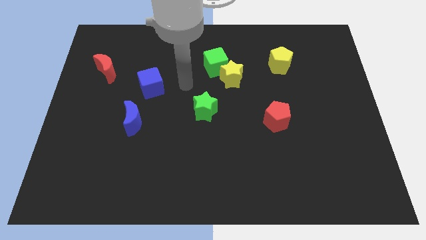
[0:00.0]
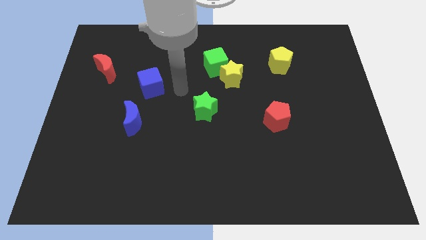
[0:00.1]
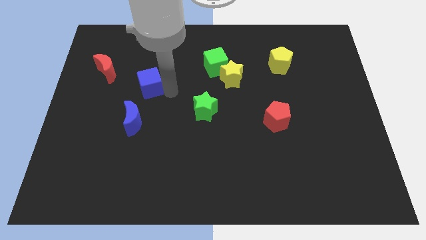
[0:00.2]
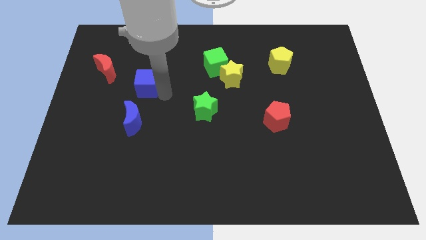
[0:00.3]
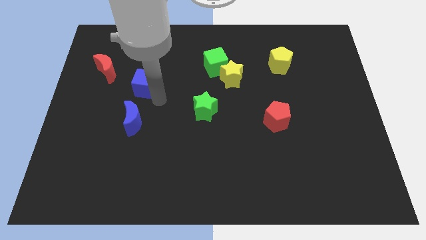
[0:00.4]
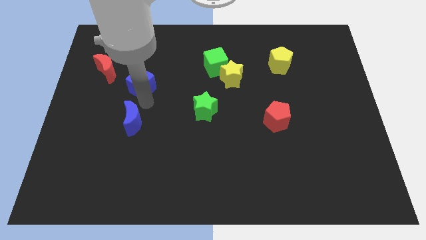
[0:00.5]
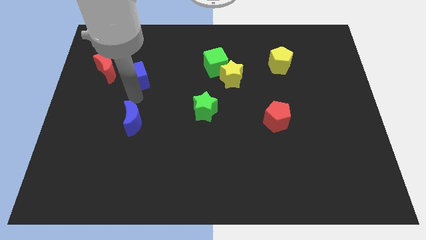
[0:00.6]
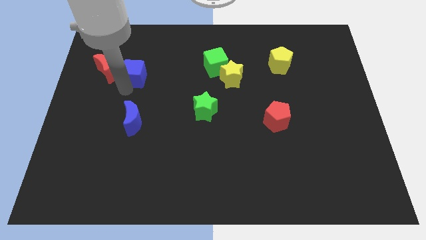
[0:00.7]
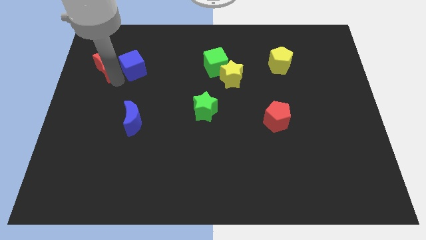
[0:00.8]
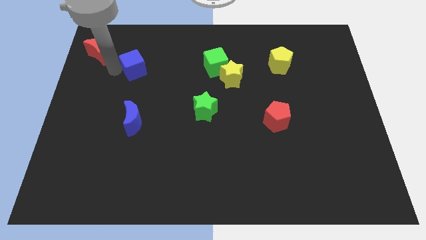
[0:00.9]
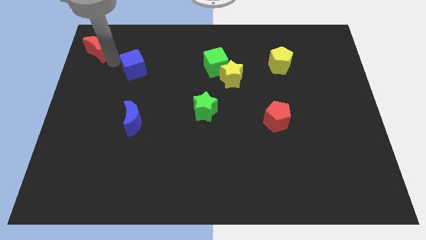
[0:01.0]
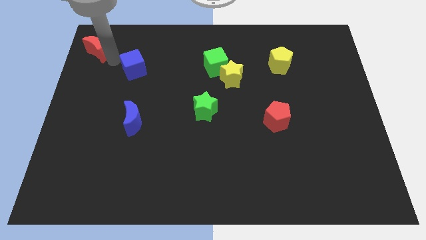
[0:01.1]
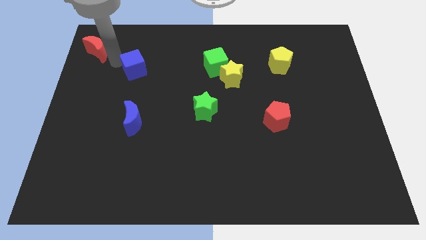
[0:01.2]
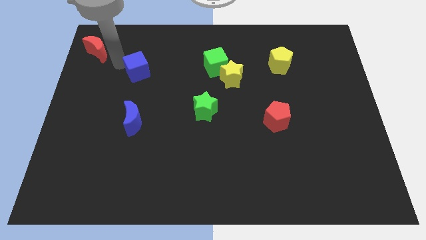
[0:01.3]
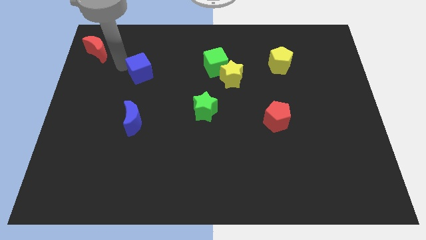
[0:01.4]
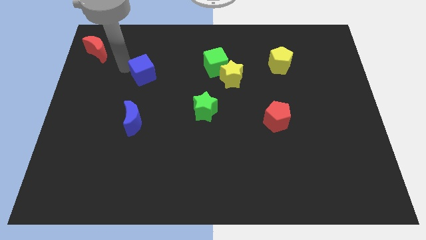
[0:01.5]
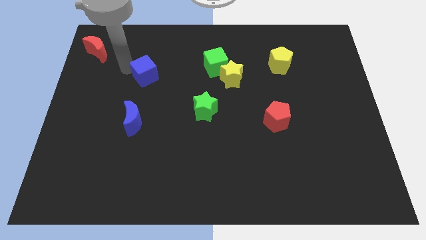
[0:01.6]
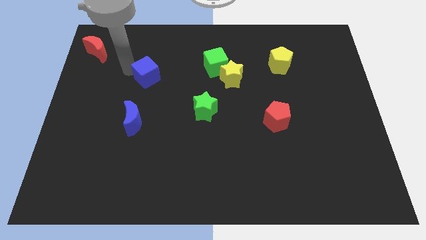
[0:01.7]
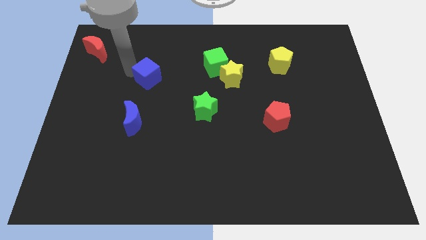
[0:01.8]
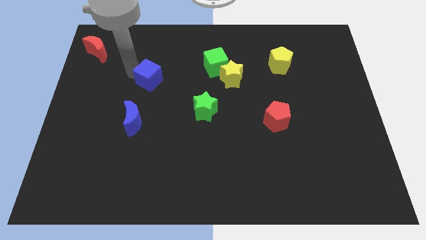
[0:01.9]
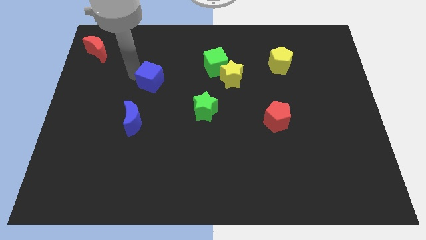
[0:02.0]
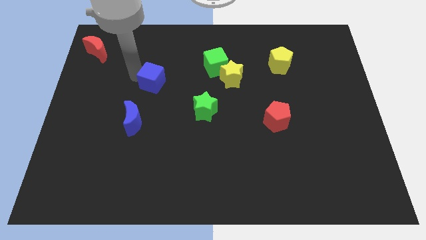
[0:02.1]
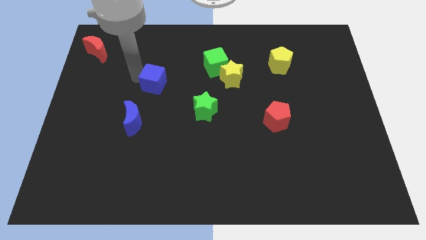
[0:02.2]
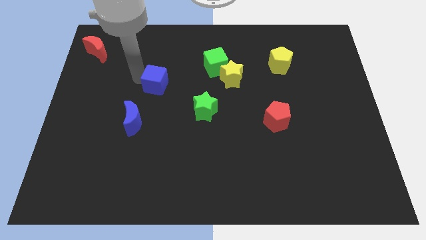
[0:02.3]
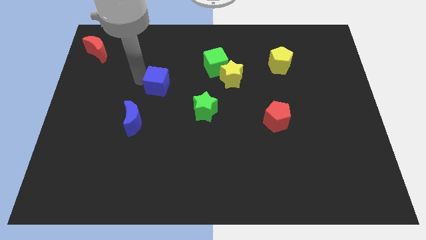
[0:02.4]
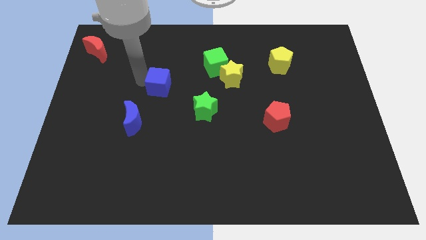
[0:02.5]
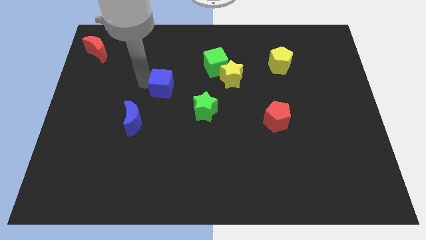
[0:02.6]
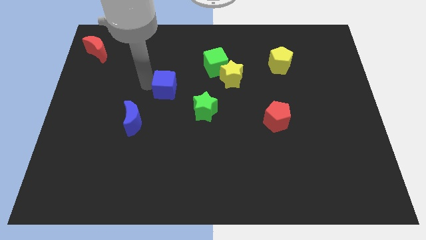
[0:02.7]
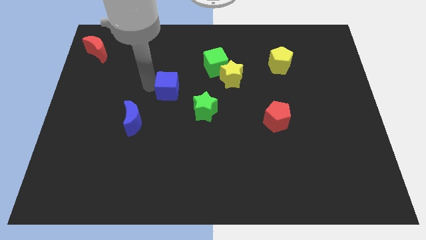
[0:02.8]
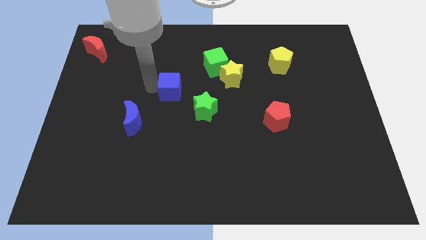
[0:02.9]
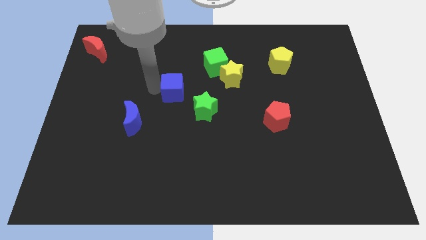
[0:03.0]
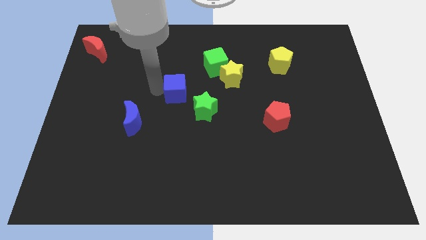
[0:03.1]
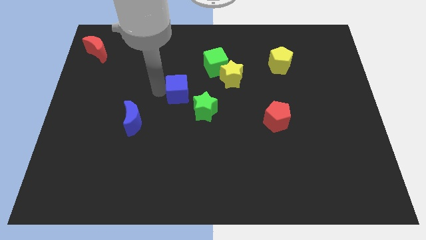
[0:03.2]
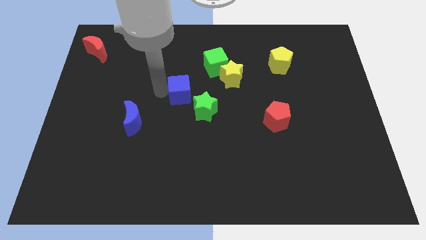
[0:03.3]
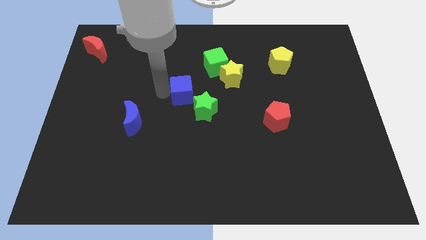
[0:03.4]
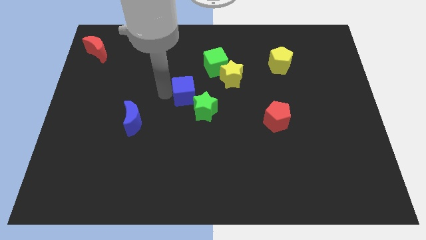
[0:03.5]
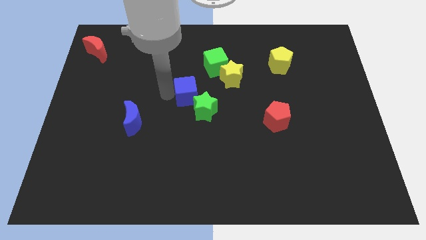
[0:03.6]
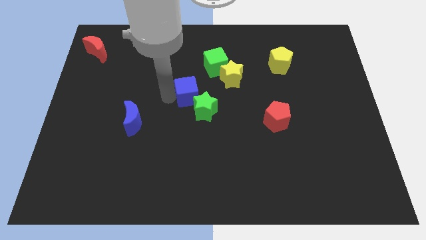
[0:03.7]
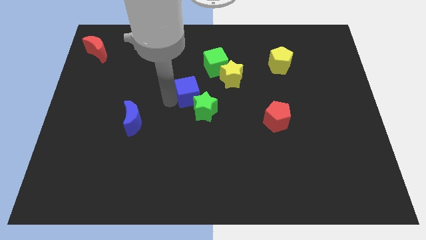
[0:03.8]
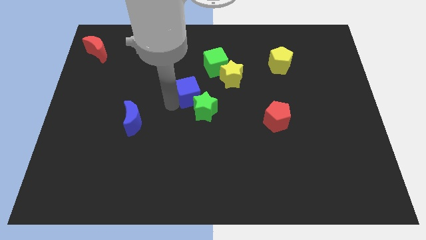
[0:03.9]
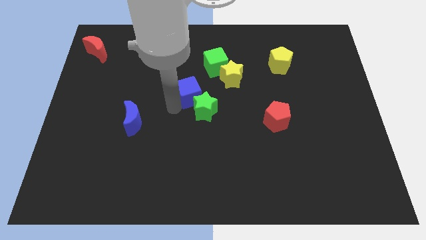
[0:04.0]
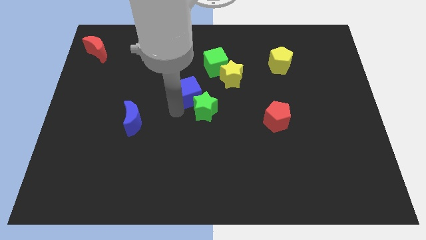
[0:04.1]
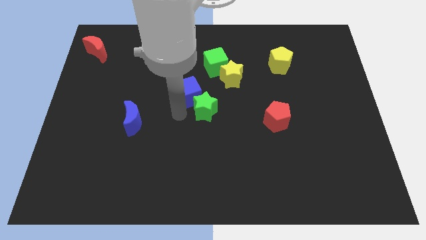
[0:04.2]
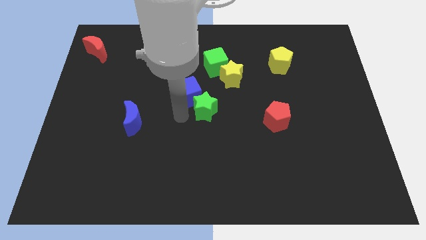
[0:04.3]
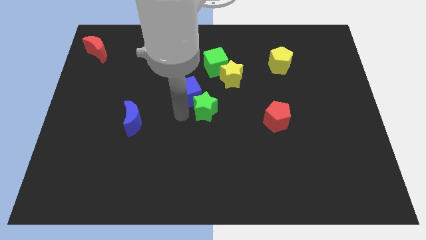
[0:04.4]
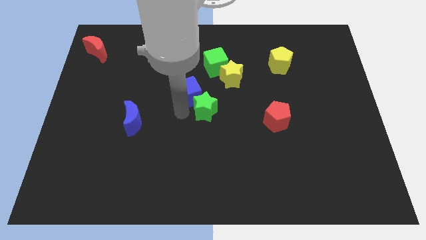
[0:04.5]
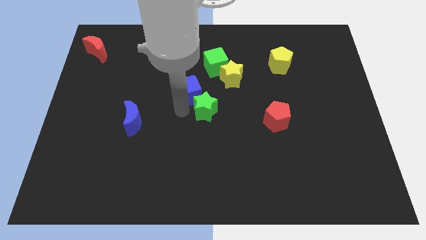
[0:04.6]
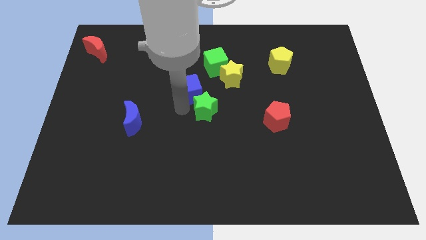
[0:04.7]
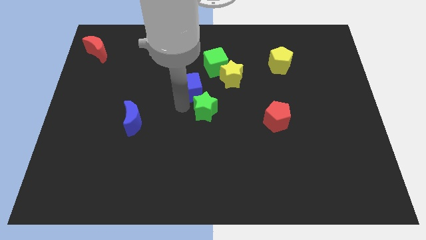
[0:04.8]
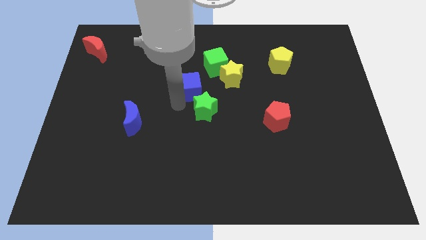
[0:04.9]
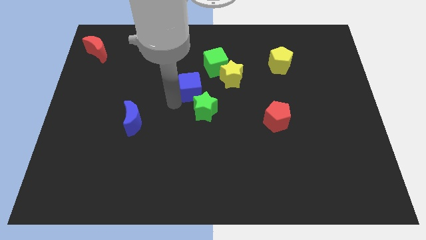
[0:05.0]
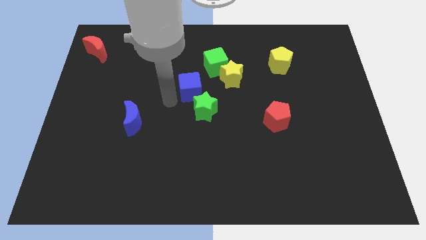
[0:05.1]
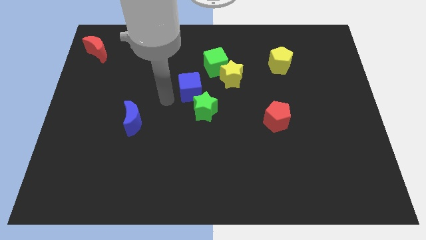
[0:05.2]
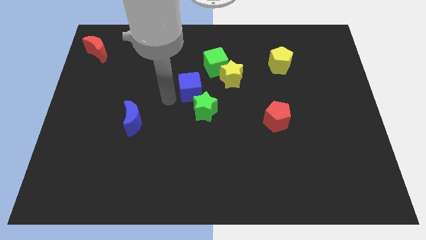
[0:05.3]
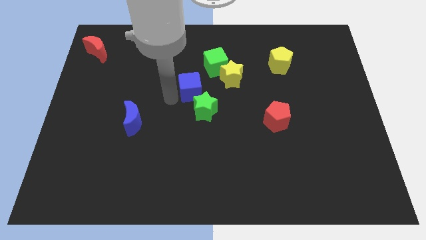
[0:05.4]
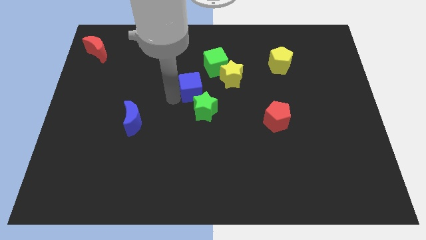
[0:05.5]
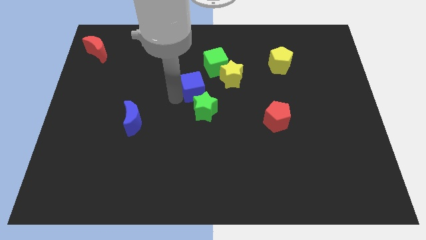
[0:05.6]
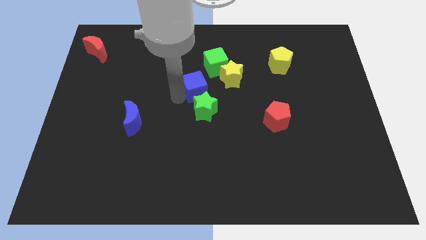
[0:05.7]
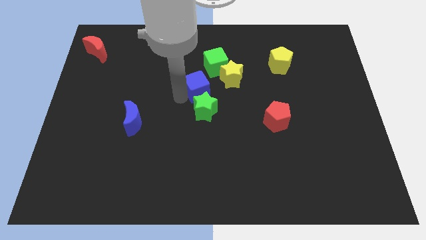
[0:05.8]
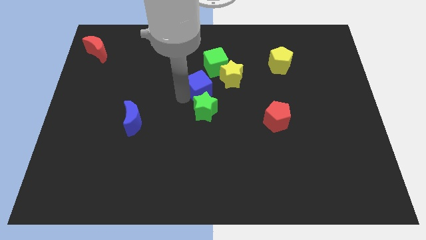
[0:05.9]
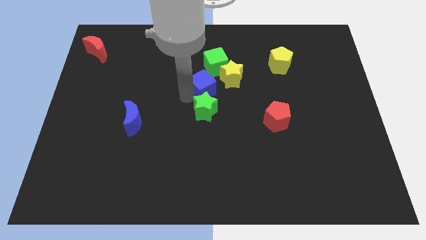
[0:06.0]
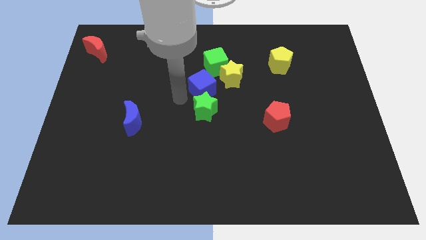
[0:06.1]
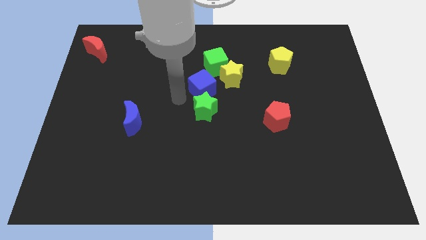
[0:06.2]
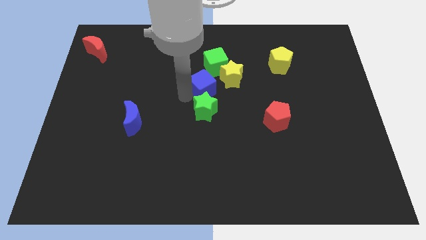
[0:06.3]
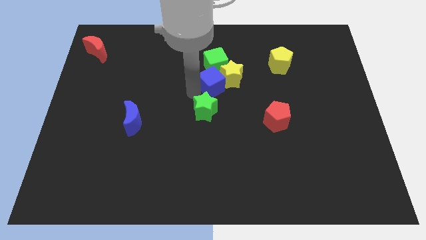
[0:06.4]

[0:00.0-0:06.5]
slide the blue cube towards the yellow star

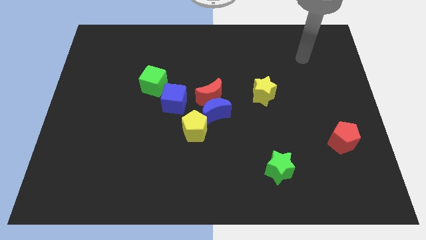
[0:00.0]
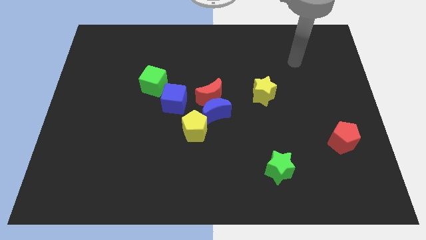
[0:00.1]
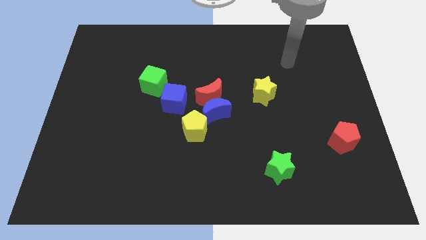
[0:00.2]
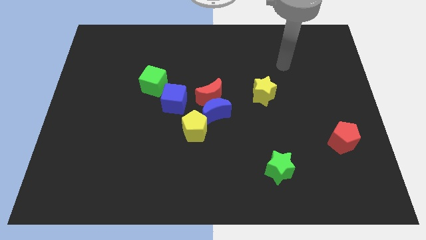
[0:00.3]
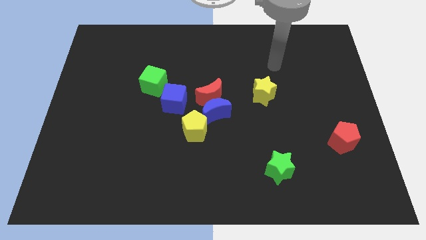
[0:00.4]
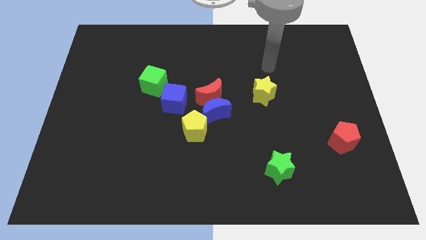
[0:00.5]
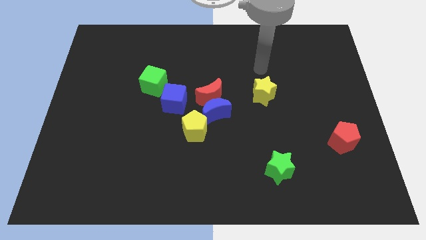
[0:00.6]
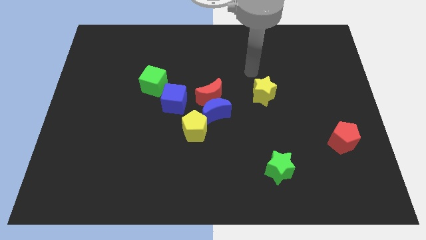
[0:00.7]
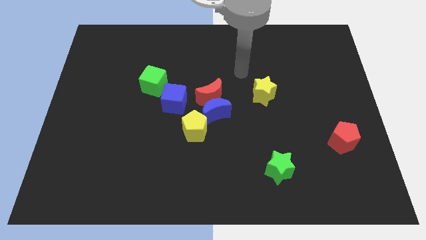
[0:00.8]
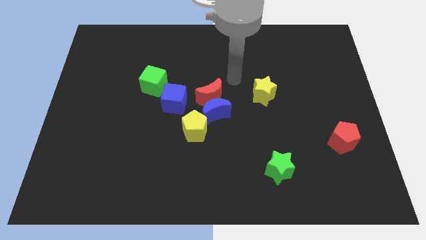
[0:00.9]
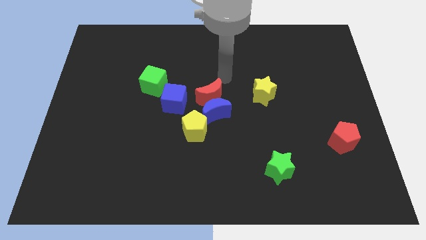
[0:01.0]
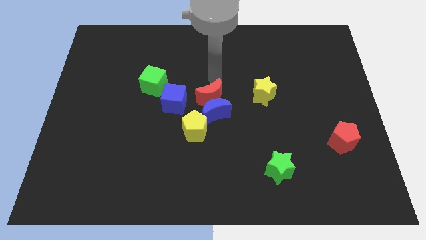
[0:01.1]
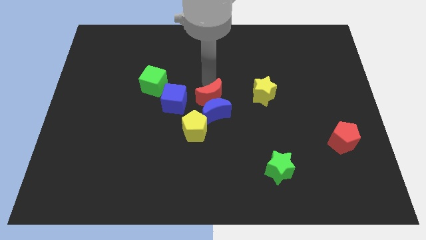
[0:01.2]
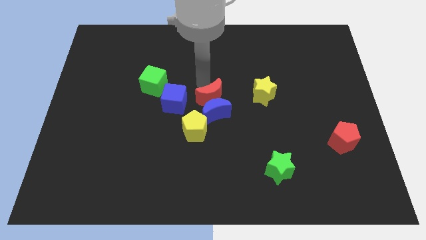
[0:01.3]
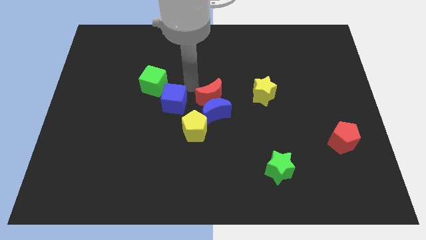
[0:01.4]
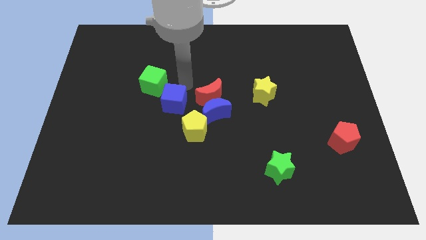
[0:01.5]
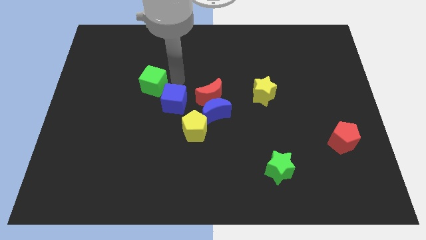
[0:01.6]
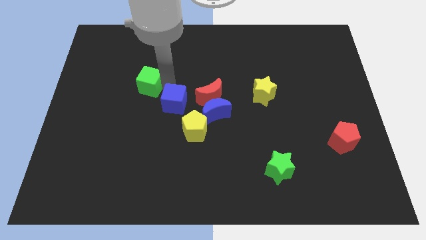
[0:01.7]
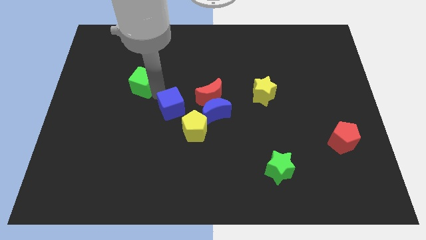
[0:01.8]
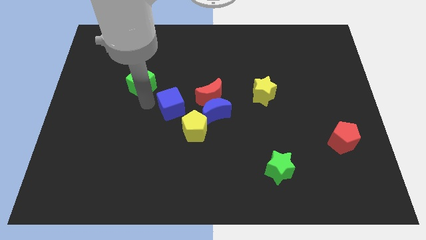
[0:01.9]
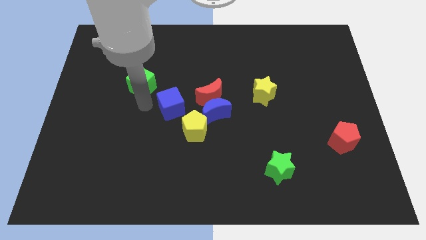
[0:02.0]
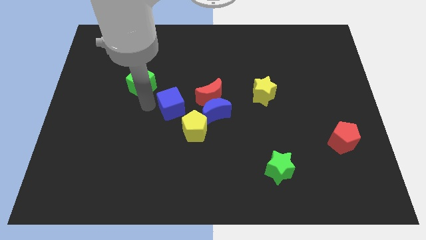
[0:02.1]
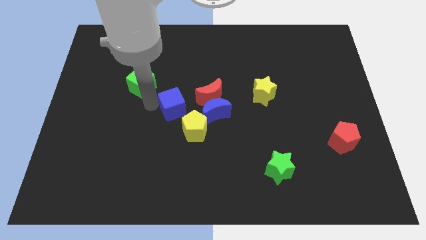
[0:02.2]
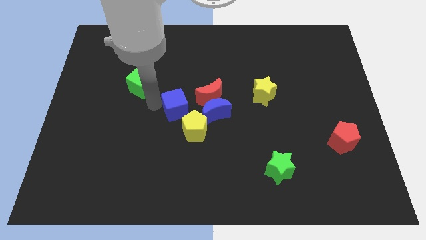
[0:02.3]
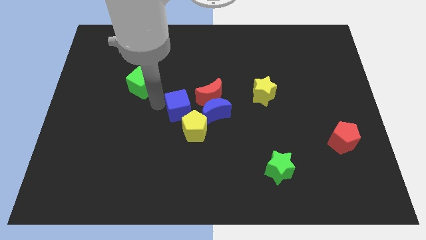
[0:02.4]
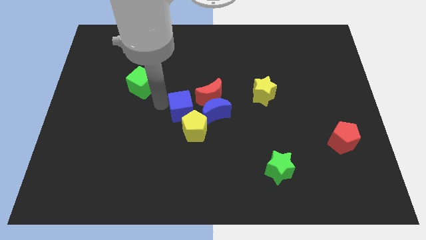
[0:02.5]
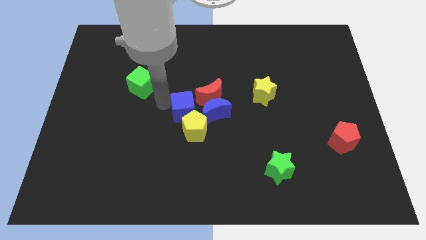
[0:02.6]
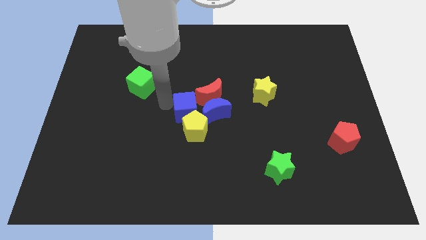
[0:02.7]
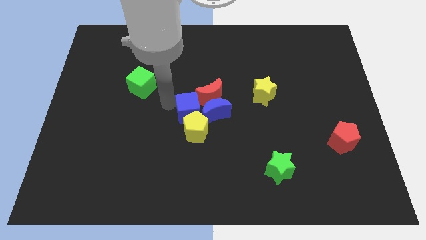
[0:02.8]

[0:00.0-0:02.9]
slide the blue cube towards the blue moon
